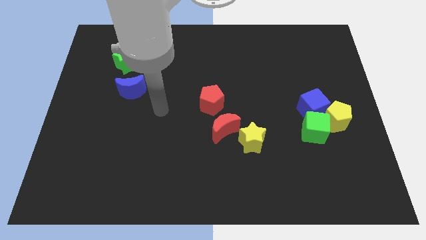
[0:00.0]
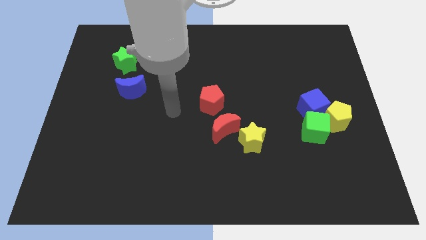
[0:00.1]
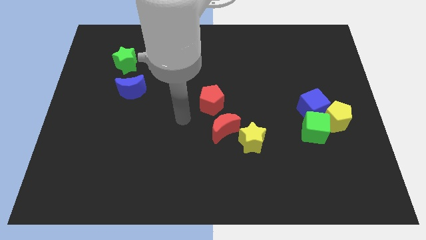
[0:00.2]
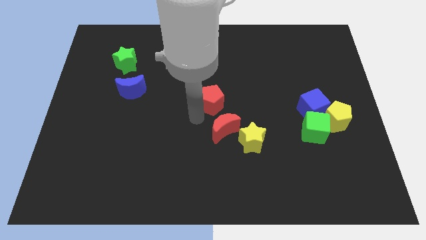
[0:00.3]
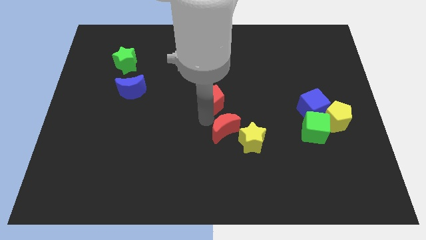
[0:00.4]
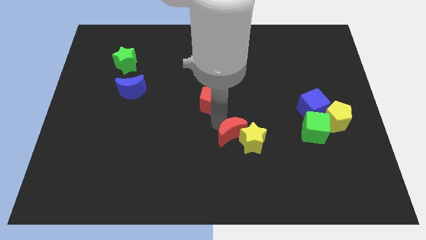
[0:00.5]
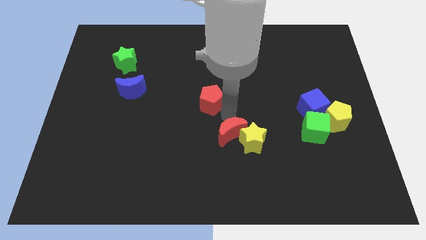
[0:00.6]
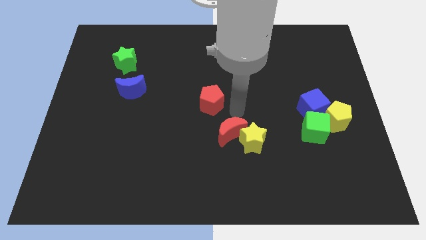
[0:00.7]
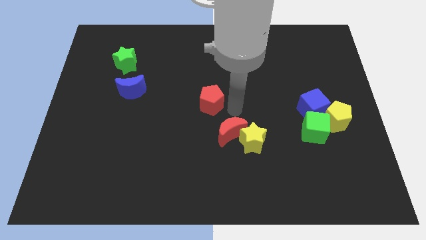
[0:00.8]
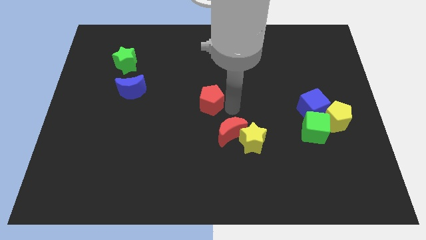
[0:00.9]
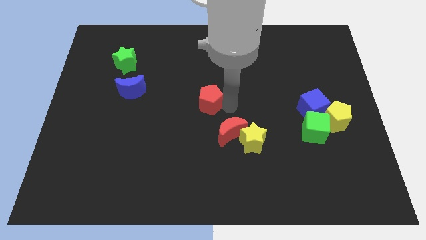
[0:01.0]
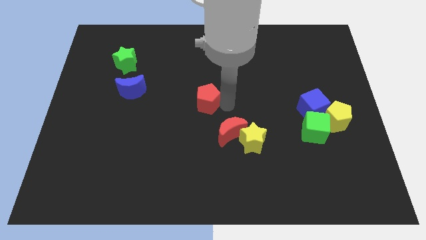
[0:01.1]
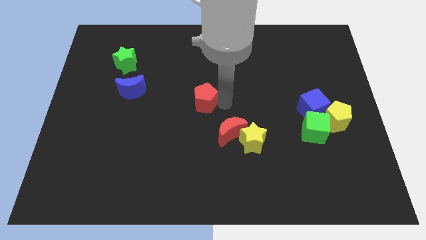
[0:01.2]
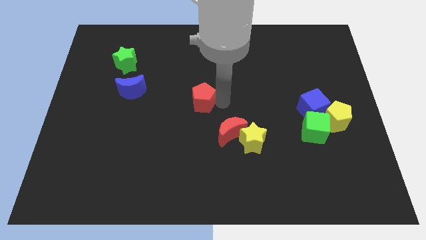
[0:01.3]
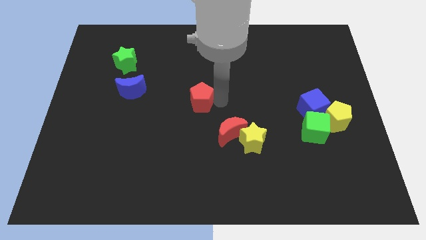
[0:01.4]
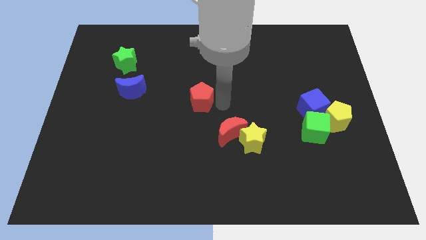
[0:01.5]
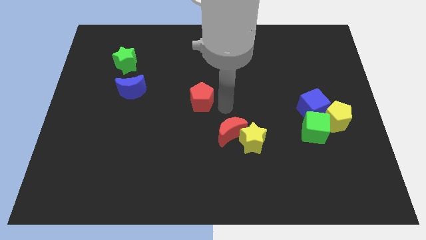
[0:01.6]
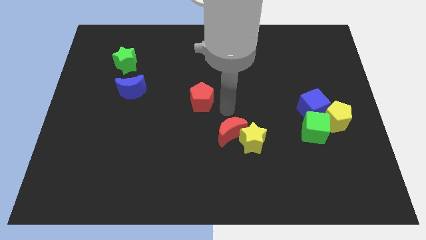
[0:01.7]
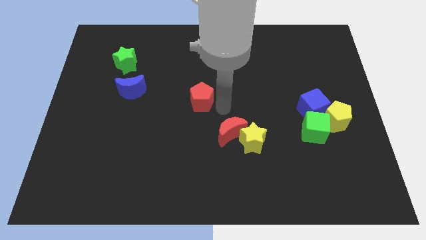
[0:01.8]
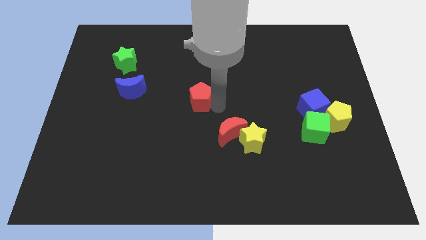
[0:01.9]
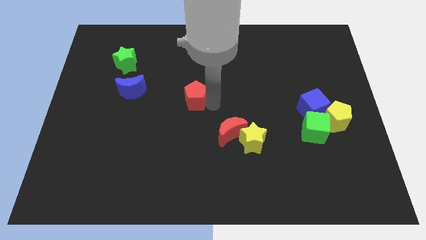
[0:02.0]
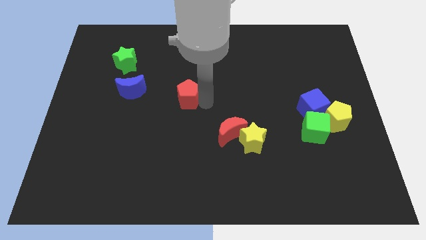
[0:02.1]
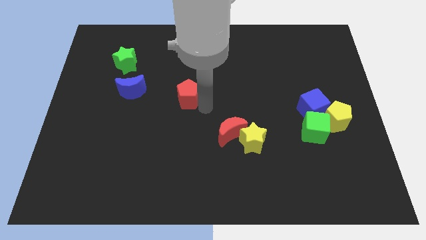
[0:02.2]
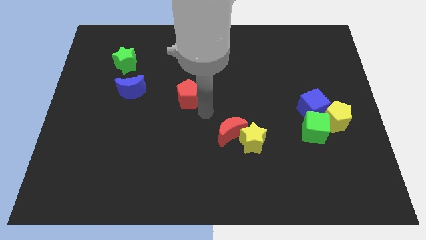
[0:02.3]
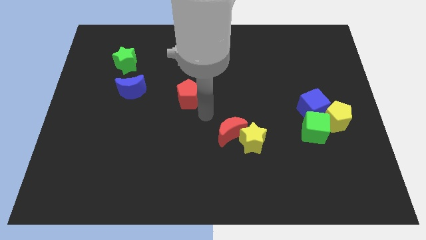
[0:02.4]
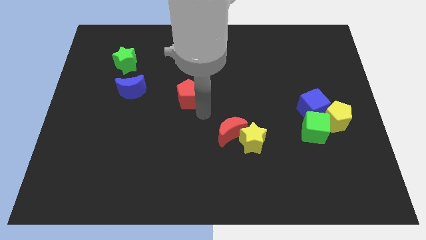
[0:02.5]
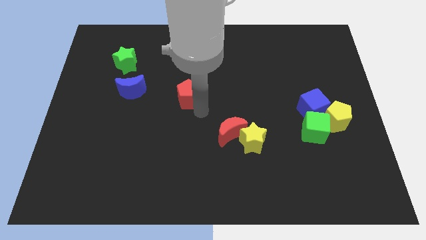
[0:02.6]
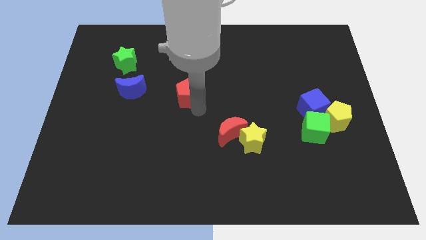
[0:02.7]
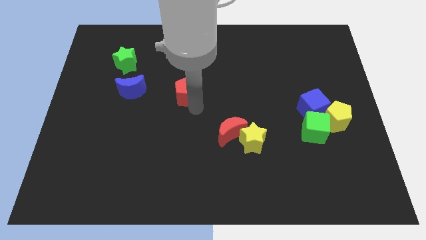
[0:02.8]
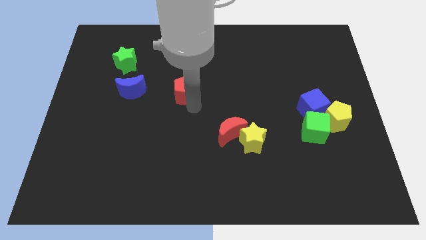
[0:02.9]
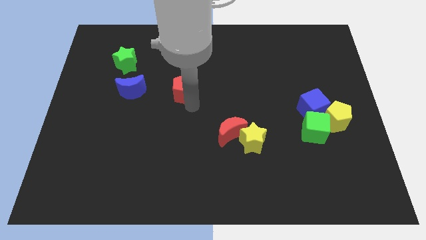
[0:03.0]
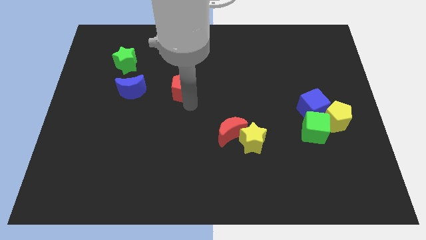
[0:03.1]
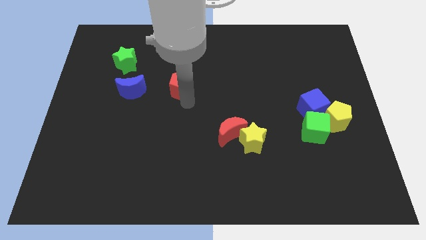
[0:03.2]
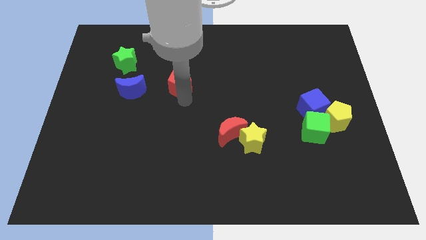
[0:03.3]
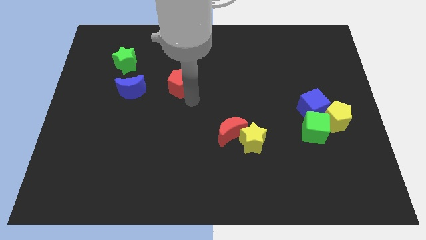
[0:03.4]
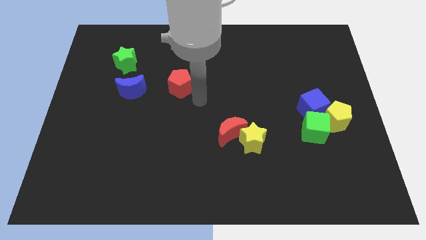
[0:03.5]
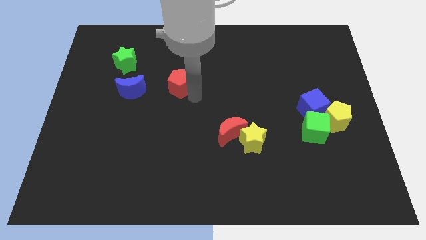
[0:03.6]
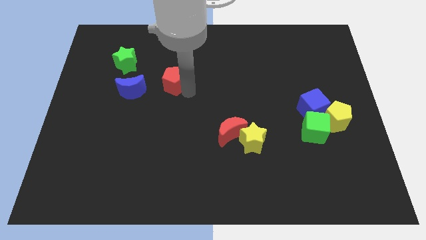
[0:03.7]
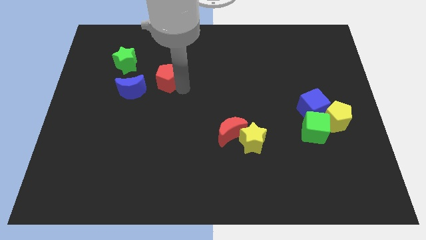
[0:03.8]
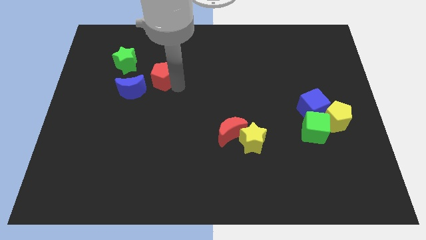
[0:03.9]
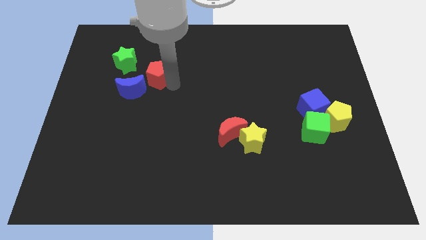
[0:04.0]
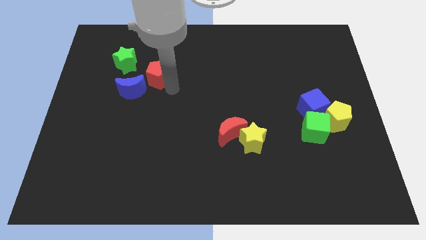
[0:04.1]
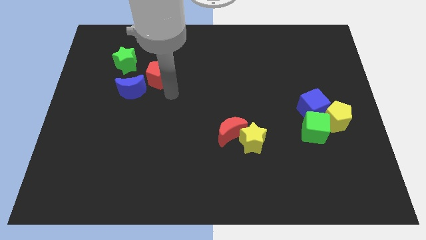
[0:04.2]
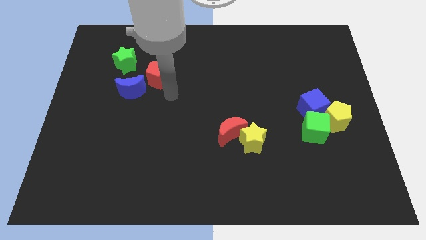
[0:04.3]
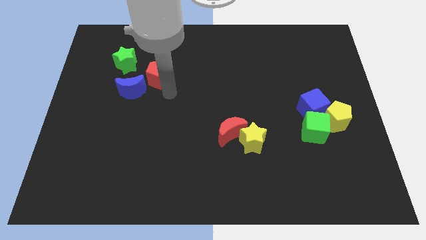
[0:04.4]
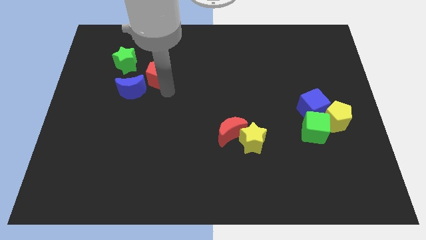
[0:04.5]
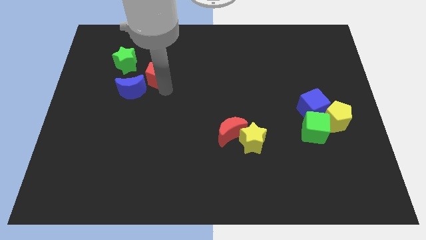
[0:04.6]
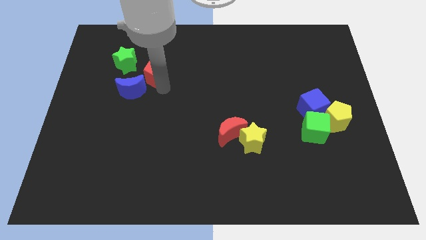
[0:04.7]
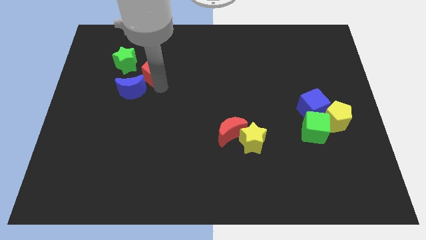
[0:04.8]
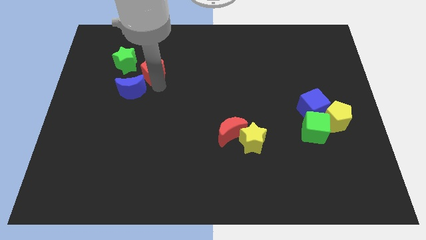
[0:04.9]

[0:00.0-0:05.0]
move the red pentagon to the top of the blue moon

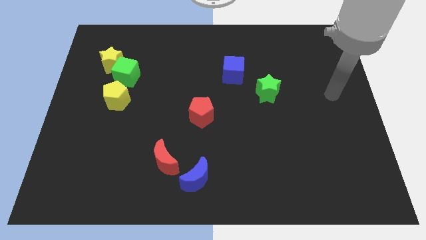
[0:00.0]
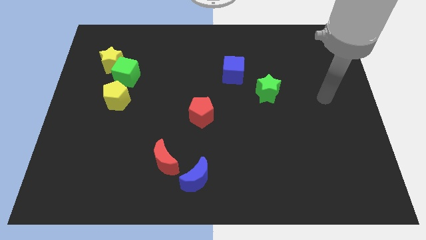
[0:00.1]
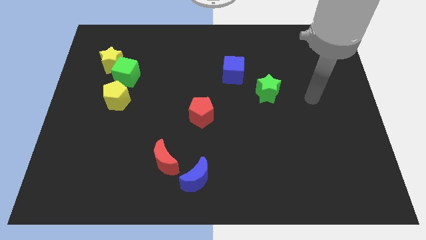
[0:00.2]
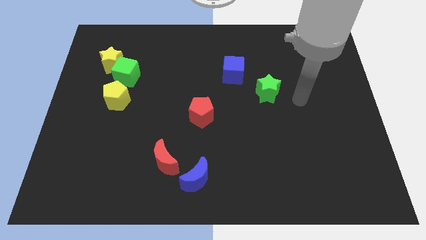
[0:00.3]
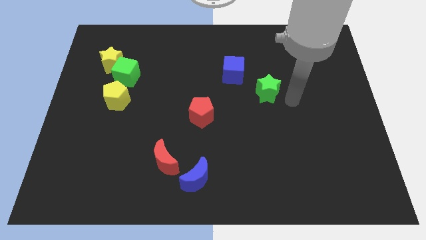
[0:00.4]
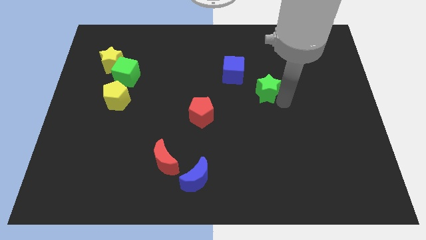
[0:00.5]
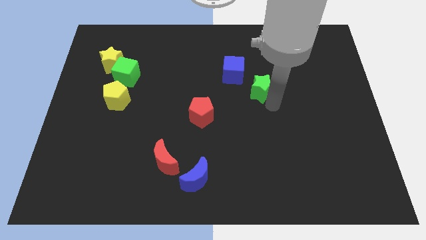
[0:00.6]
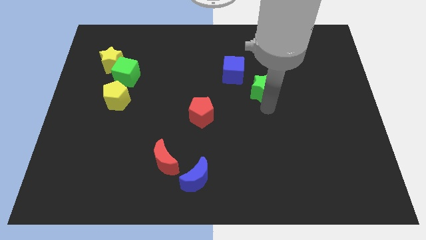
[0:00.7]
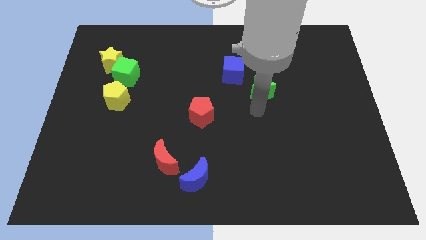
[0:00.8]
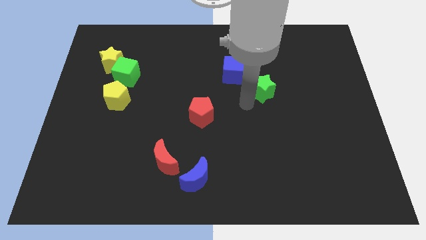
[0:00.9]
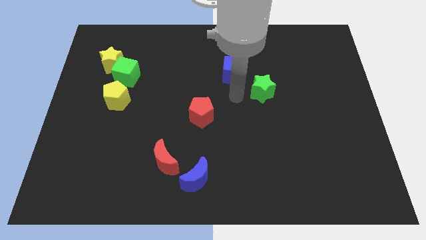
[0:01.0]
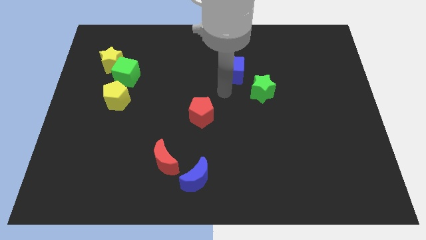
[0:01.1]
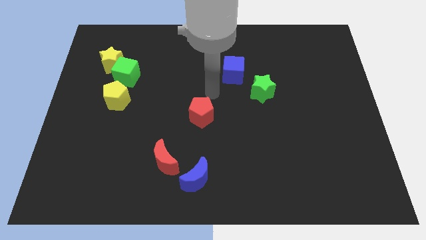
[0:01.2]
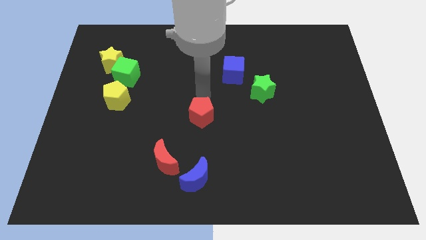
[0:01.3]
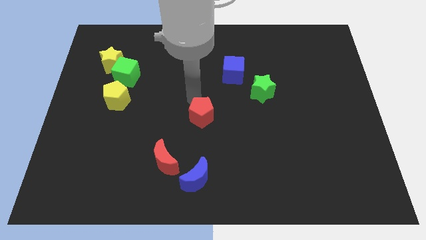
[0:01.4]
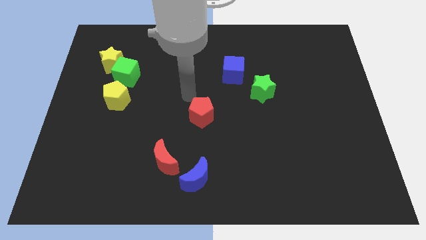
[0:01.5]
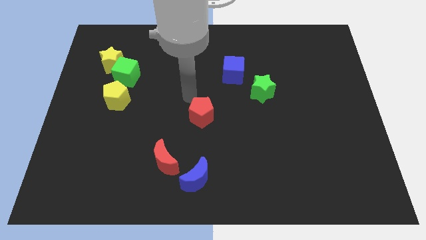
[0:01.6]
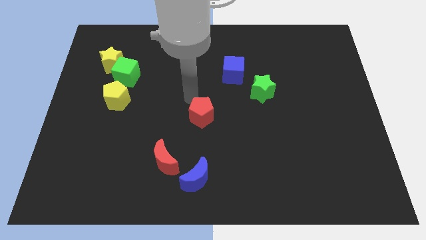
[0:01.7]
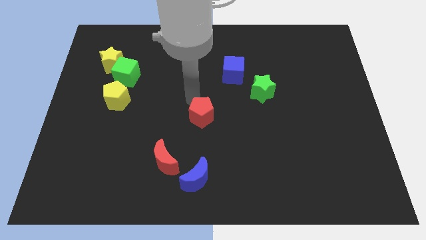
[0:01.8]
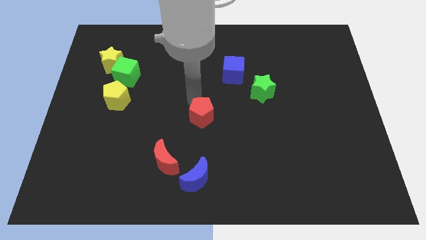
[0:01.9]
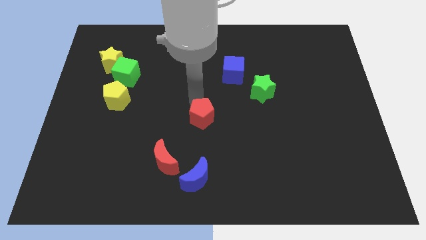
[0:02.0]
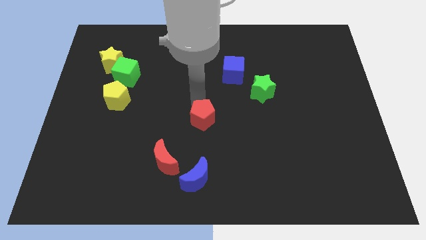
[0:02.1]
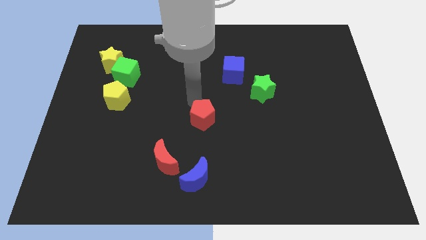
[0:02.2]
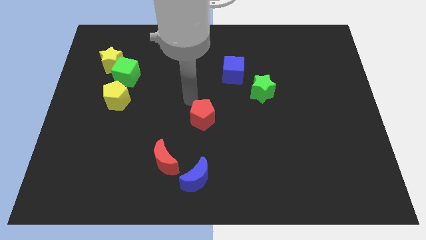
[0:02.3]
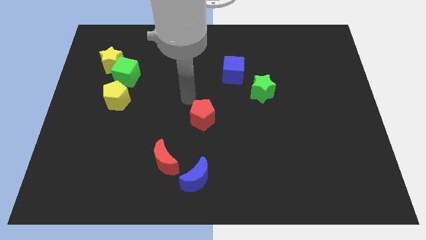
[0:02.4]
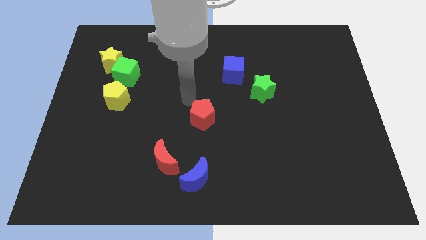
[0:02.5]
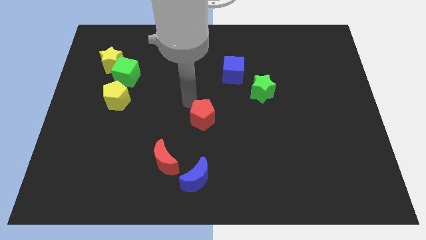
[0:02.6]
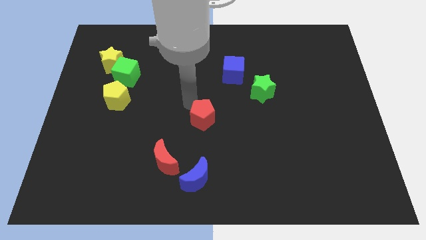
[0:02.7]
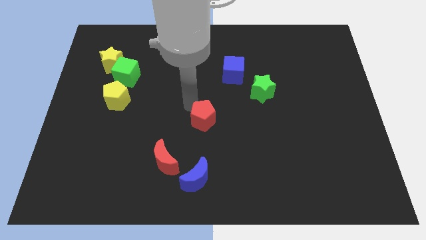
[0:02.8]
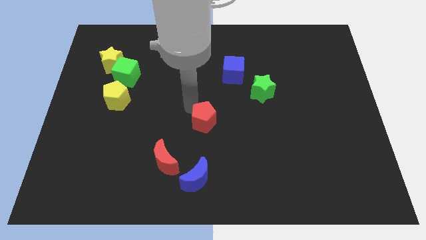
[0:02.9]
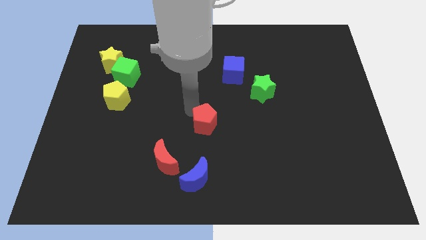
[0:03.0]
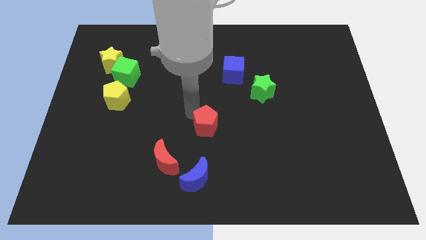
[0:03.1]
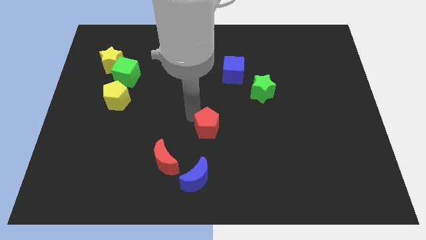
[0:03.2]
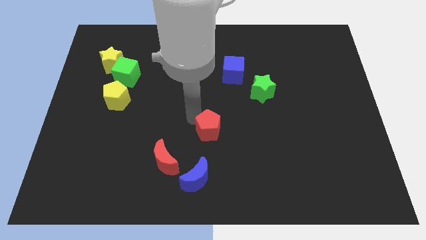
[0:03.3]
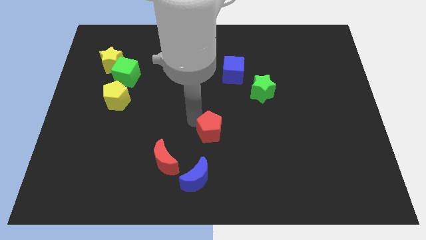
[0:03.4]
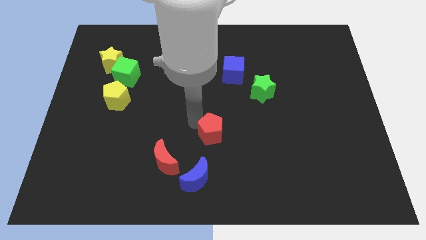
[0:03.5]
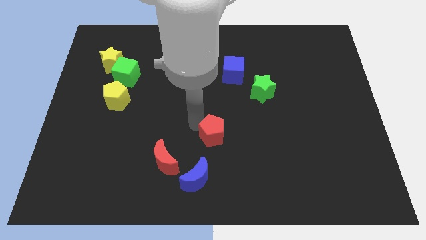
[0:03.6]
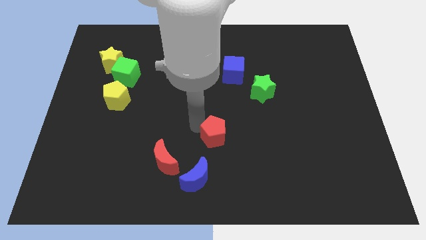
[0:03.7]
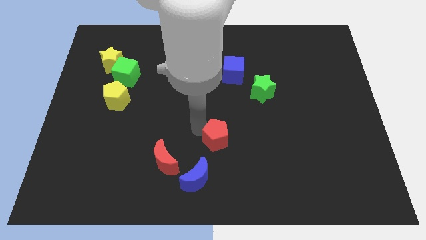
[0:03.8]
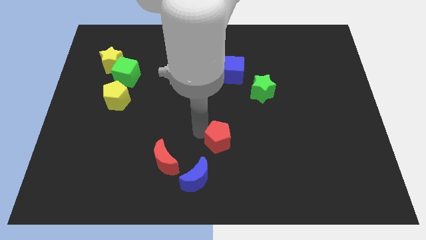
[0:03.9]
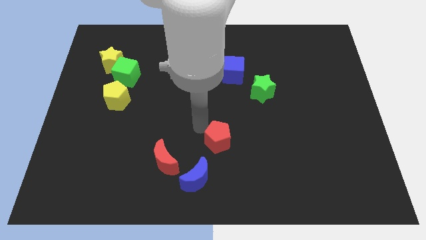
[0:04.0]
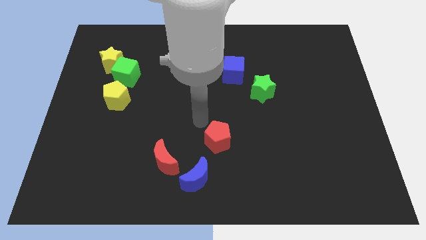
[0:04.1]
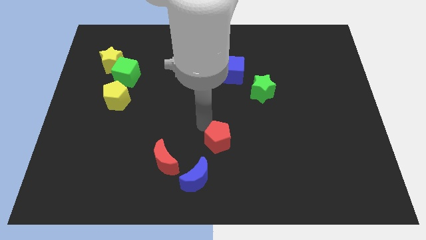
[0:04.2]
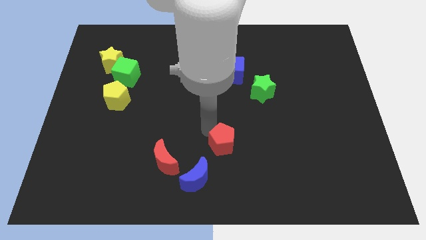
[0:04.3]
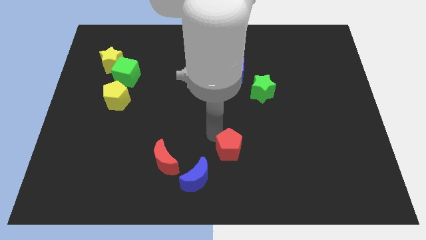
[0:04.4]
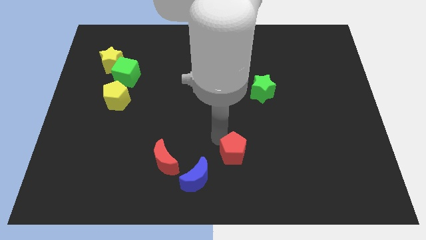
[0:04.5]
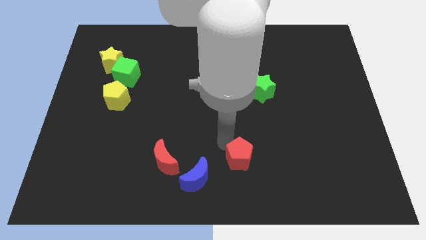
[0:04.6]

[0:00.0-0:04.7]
put the red pentagon just right of the blue moon
